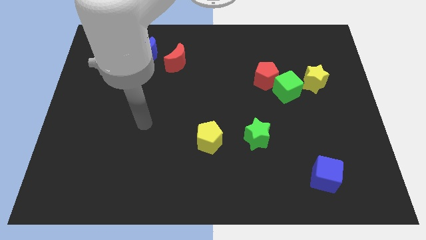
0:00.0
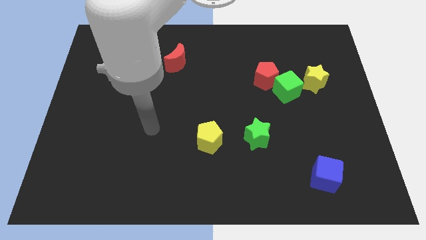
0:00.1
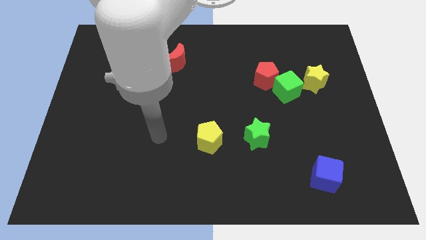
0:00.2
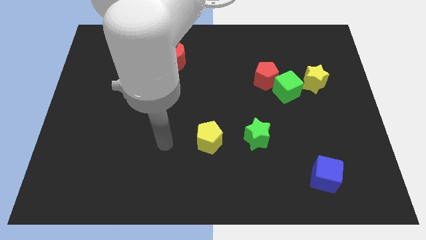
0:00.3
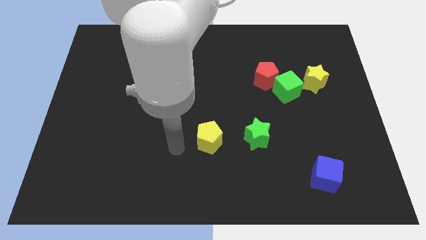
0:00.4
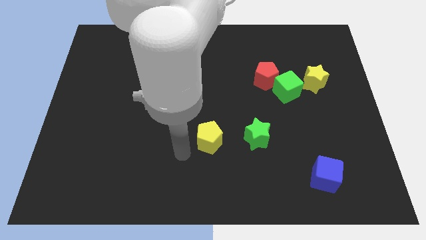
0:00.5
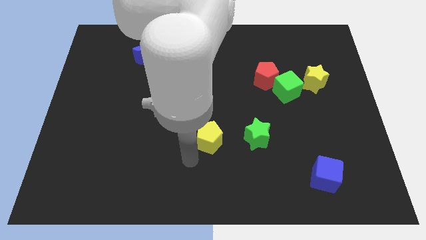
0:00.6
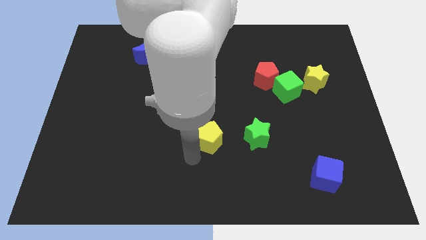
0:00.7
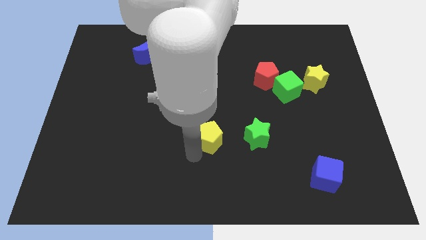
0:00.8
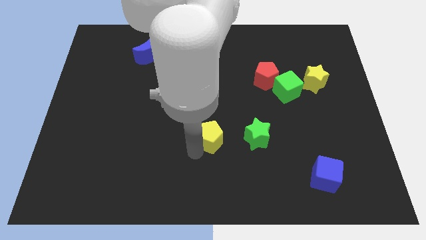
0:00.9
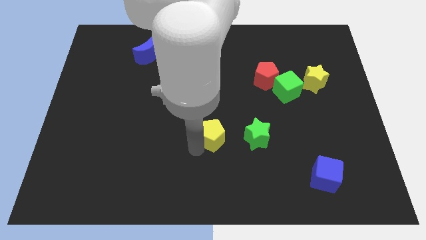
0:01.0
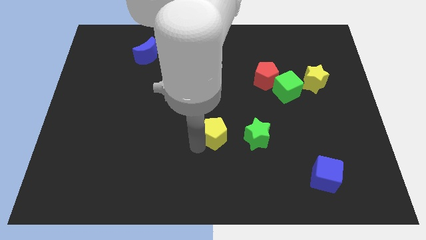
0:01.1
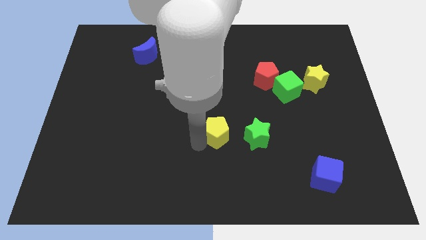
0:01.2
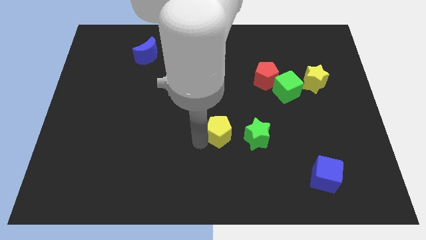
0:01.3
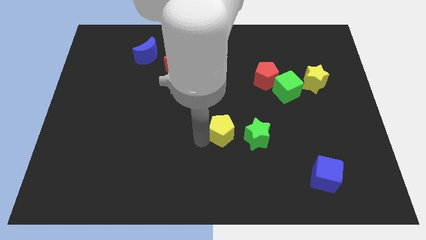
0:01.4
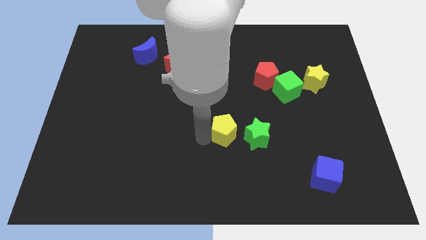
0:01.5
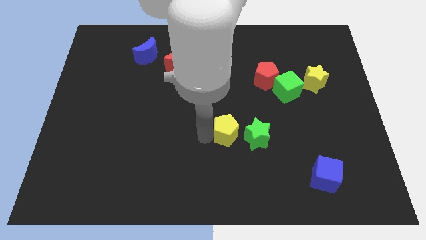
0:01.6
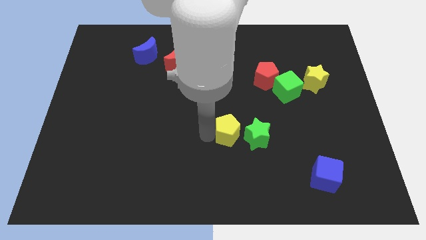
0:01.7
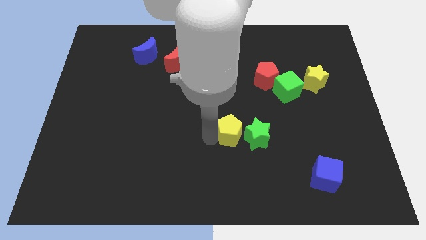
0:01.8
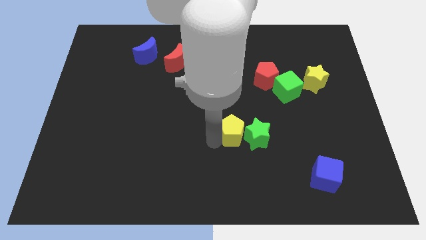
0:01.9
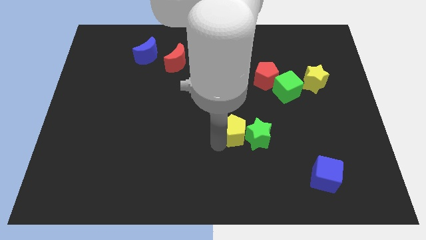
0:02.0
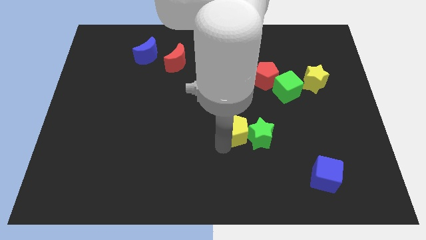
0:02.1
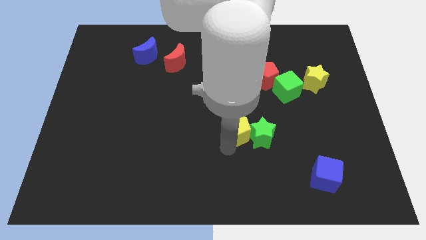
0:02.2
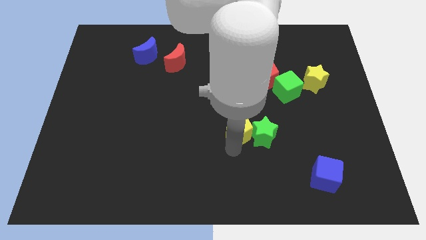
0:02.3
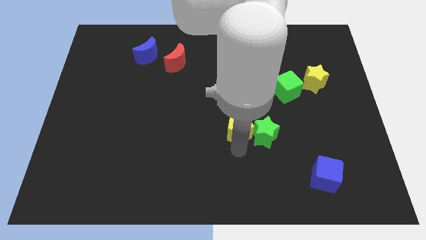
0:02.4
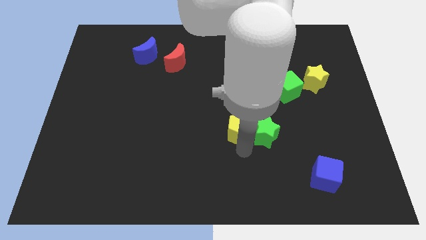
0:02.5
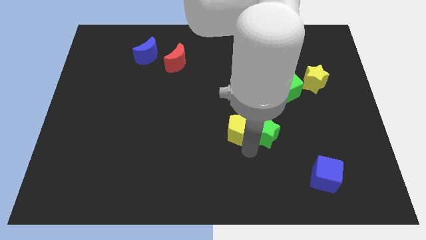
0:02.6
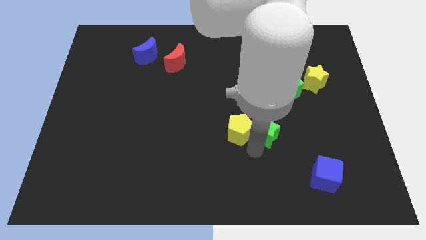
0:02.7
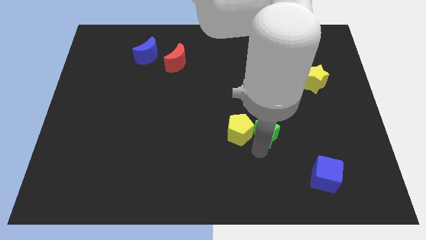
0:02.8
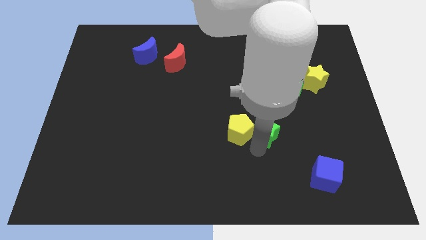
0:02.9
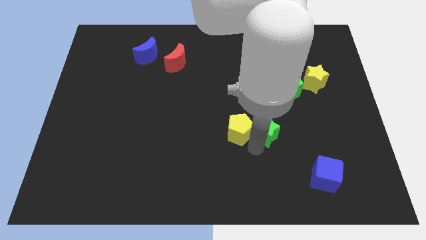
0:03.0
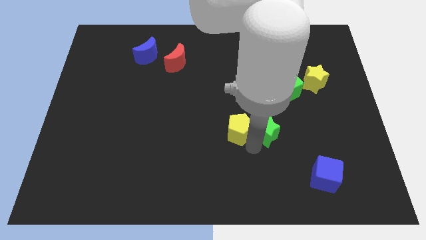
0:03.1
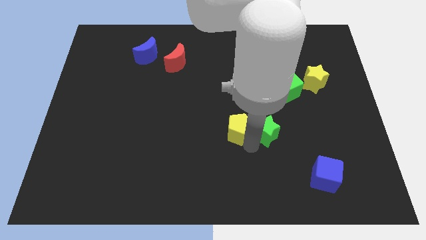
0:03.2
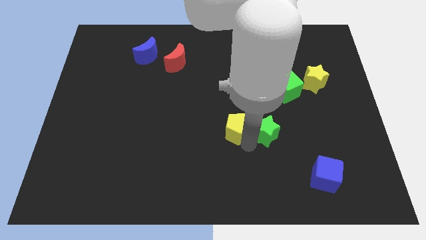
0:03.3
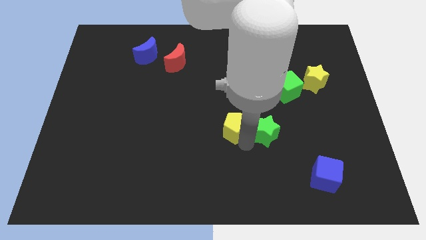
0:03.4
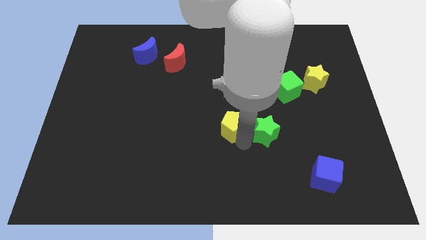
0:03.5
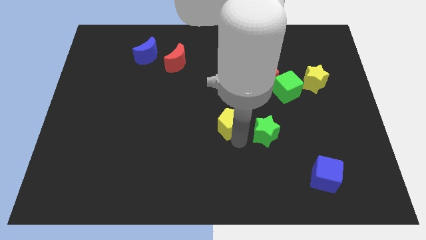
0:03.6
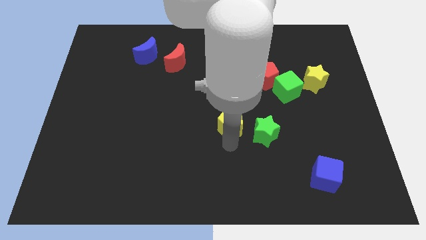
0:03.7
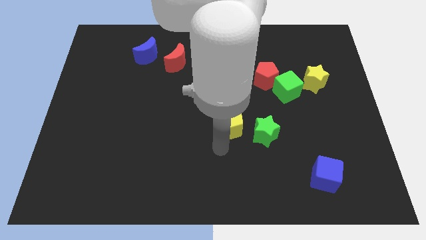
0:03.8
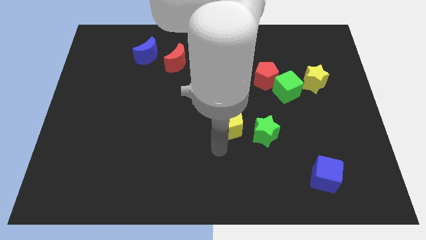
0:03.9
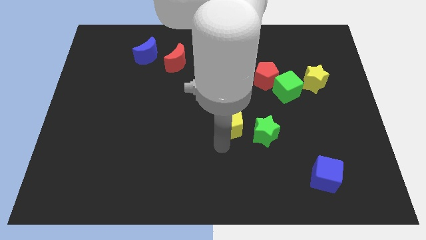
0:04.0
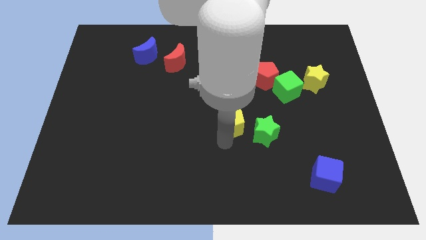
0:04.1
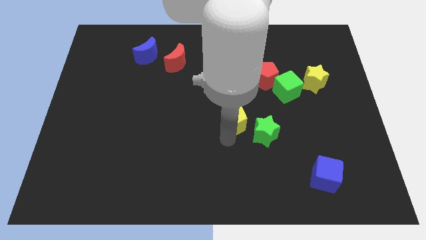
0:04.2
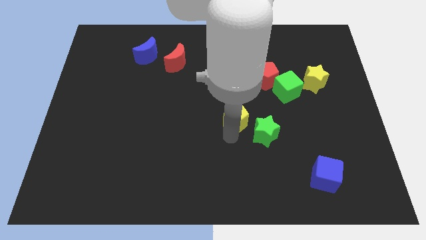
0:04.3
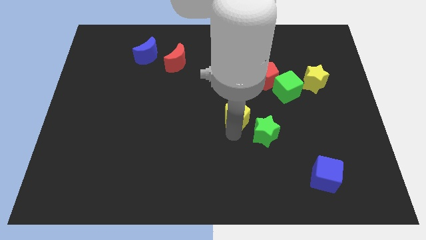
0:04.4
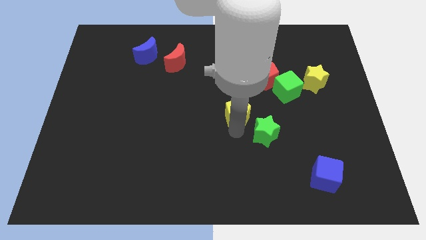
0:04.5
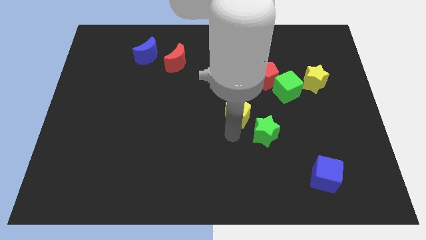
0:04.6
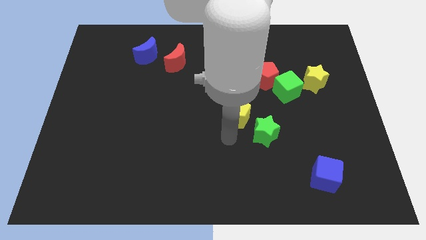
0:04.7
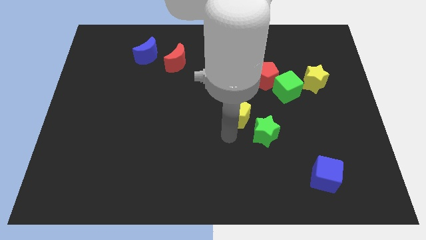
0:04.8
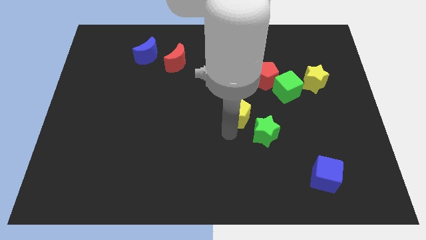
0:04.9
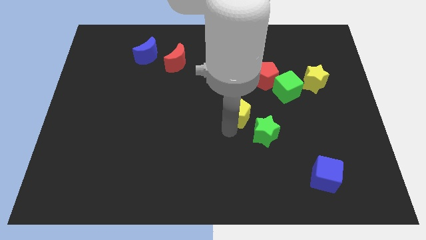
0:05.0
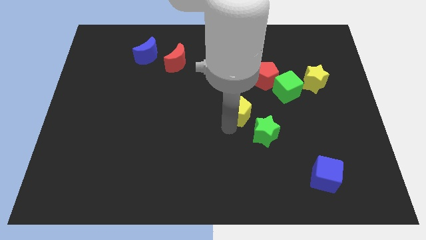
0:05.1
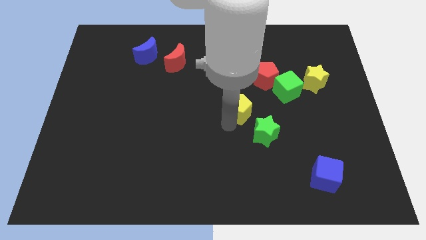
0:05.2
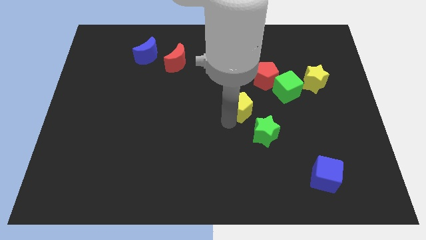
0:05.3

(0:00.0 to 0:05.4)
push the yellow pentagon to the bottom left of the red pentagon

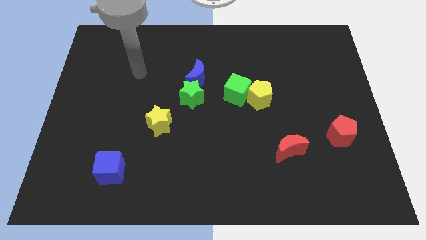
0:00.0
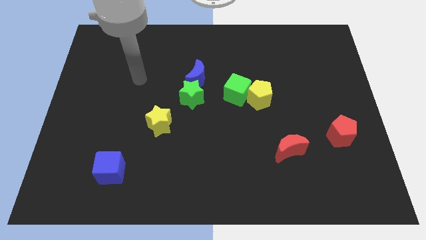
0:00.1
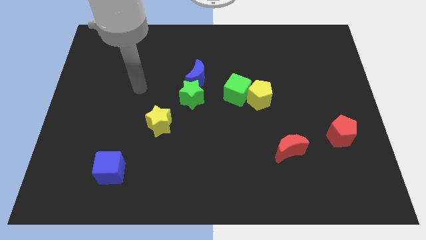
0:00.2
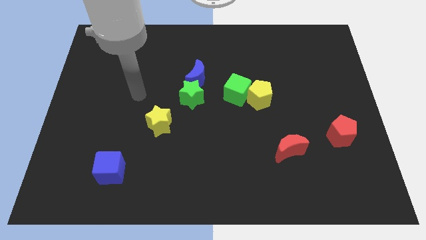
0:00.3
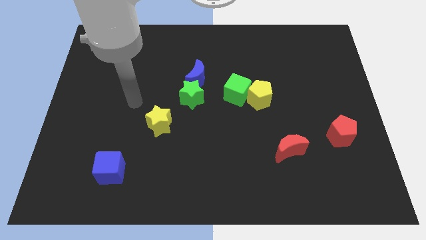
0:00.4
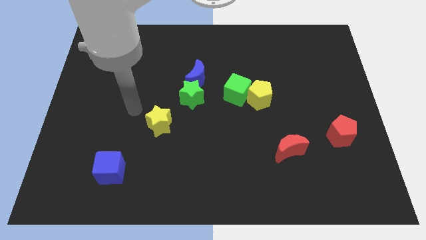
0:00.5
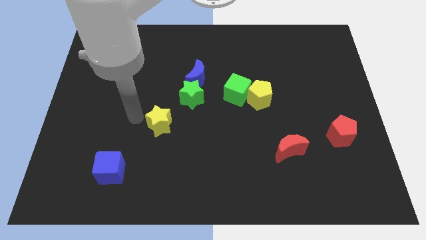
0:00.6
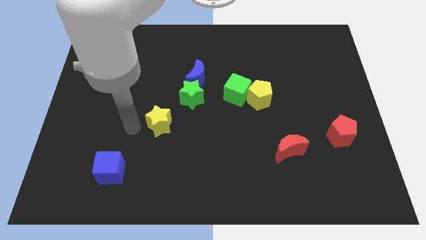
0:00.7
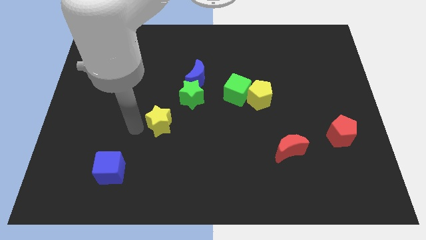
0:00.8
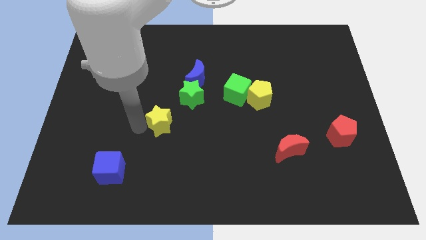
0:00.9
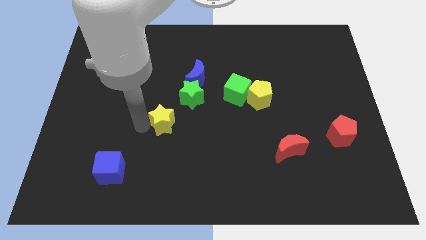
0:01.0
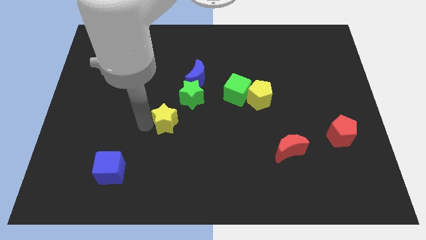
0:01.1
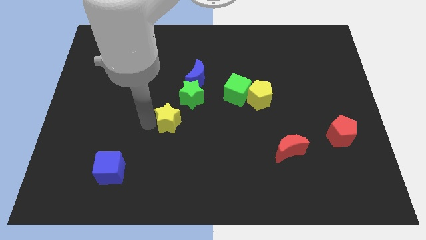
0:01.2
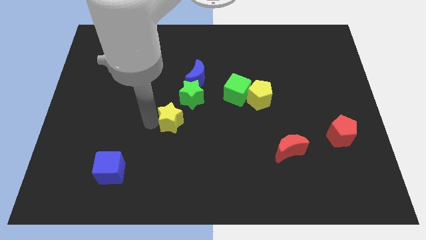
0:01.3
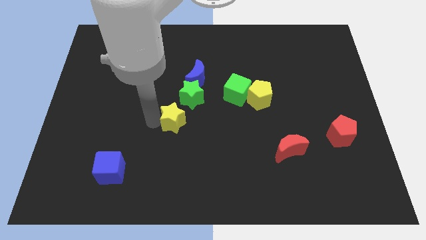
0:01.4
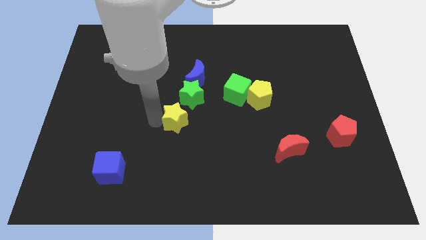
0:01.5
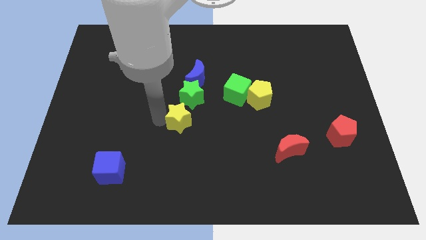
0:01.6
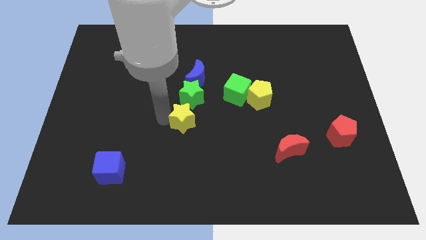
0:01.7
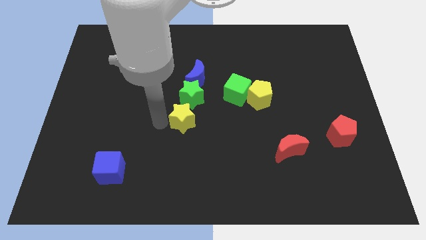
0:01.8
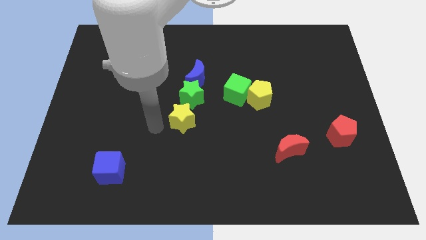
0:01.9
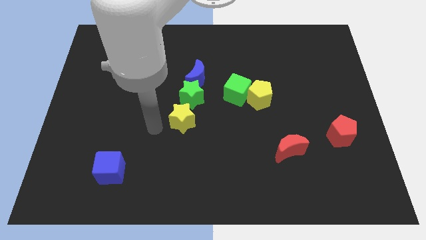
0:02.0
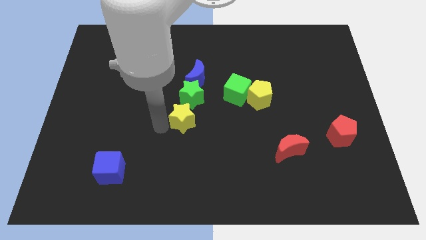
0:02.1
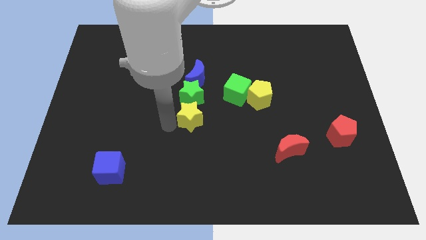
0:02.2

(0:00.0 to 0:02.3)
put the yellow star to the bottom right side of the green star
